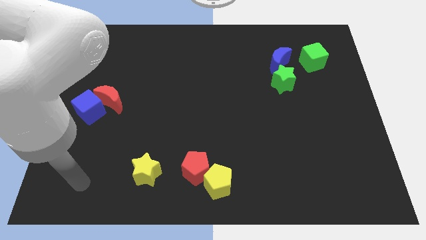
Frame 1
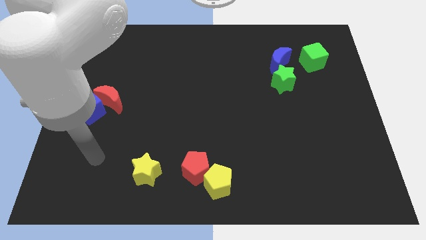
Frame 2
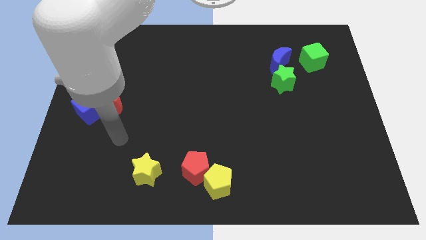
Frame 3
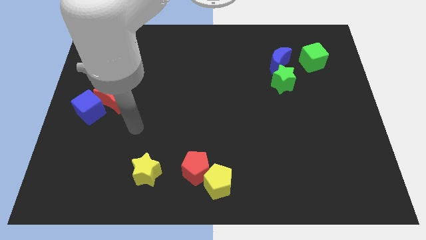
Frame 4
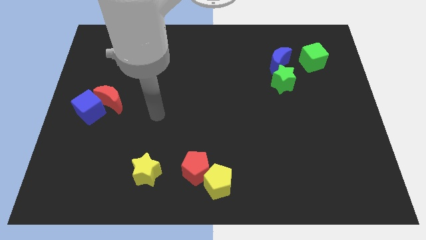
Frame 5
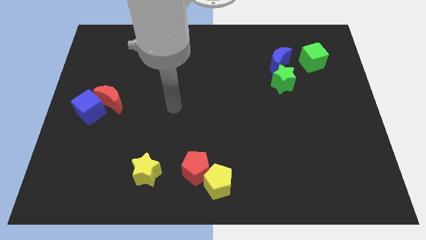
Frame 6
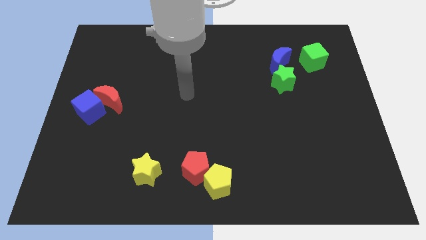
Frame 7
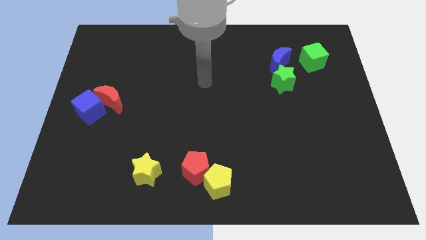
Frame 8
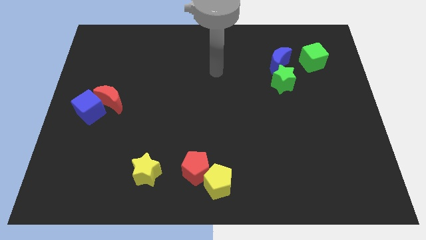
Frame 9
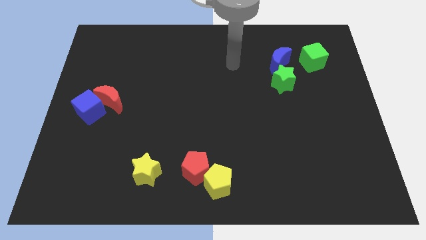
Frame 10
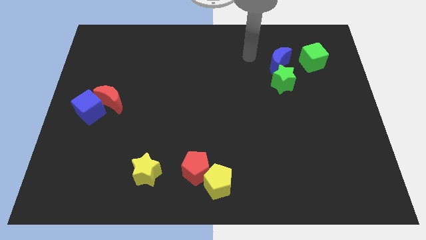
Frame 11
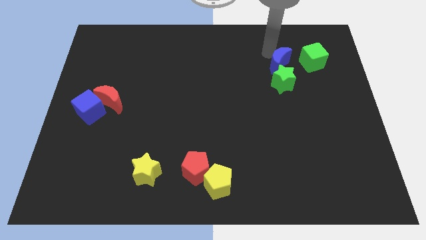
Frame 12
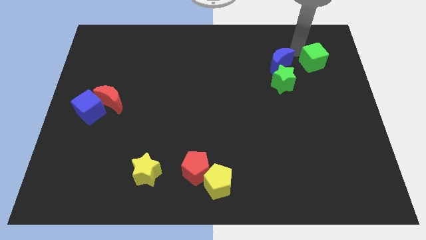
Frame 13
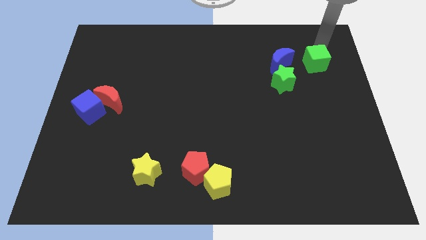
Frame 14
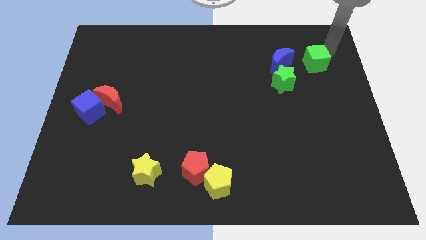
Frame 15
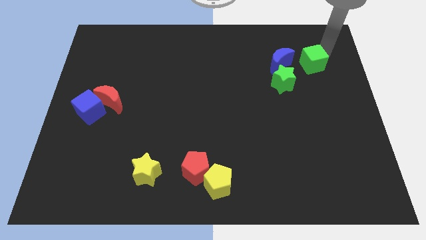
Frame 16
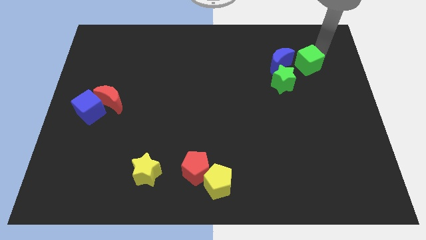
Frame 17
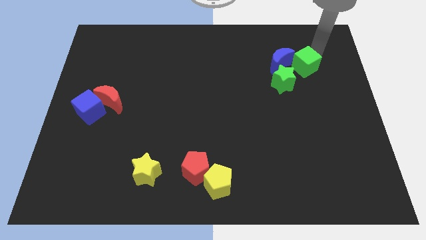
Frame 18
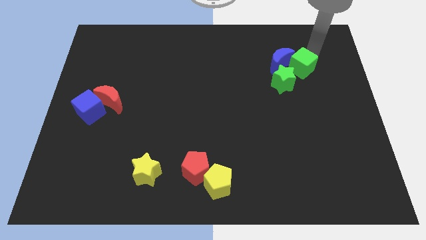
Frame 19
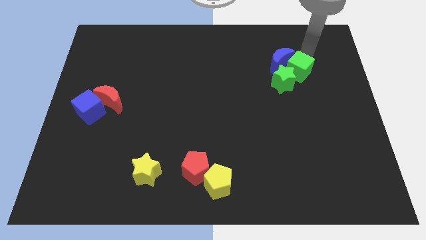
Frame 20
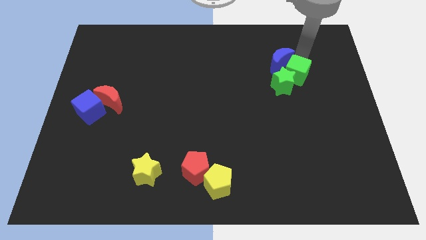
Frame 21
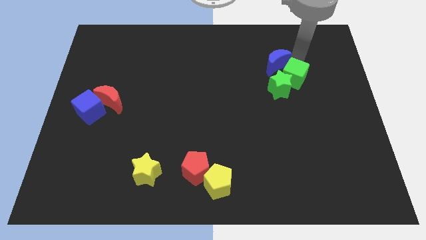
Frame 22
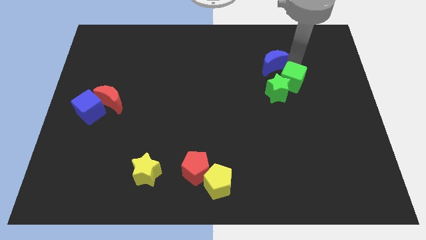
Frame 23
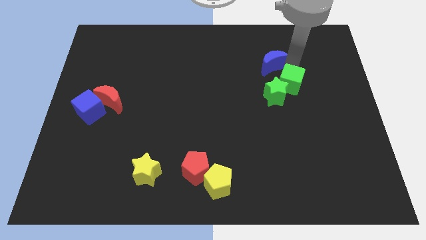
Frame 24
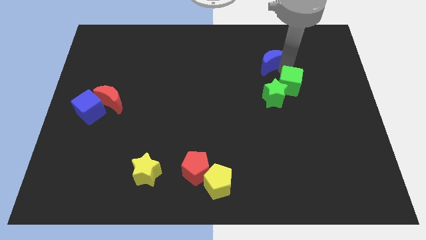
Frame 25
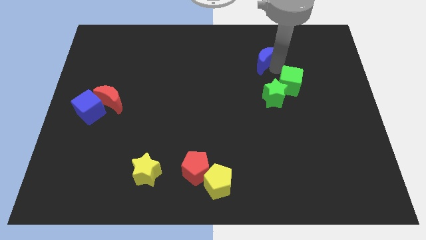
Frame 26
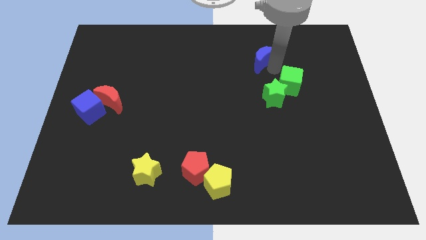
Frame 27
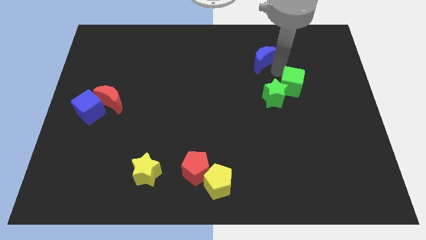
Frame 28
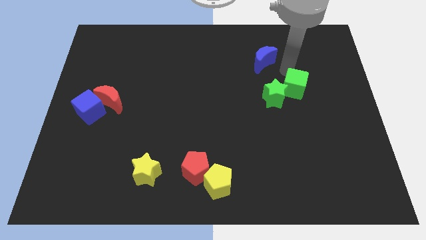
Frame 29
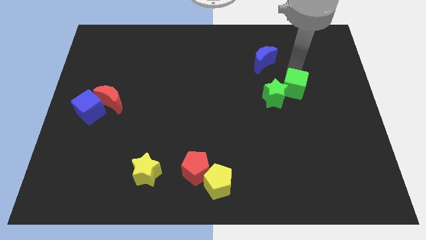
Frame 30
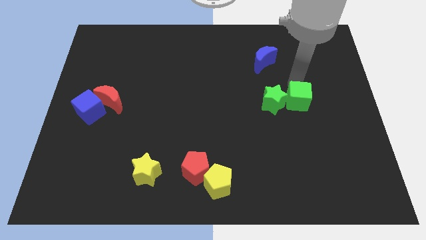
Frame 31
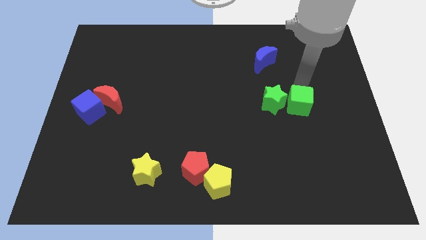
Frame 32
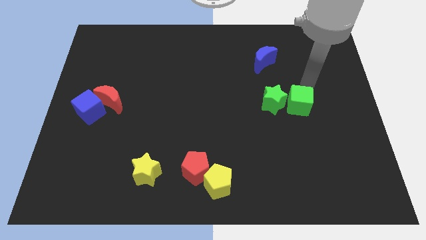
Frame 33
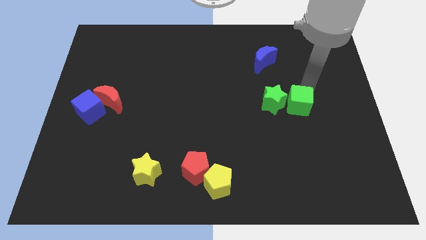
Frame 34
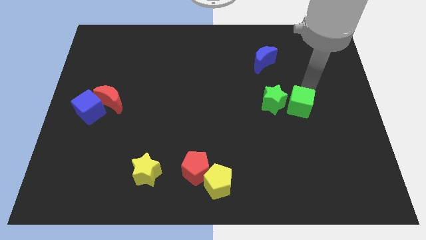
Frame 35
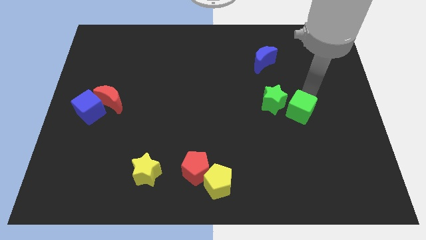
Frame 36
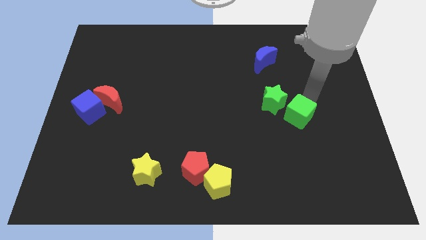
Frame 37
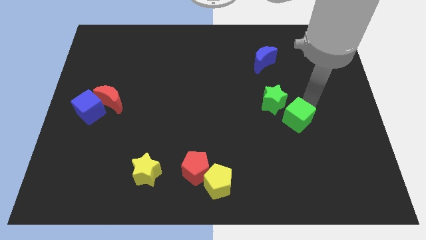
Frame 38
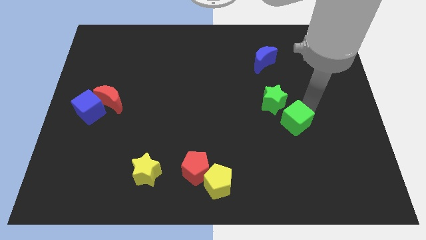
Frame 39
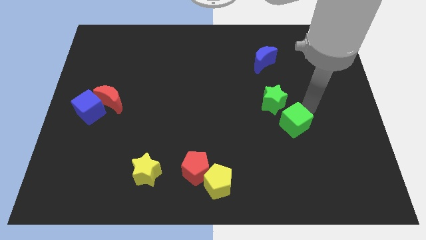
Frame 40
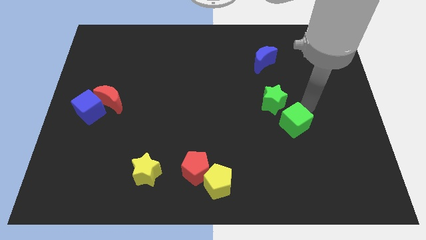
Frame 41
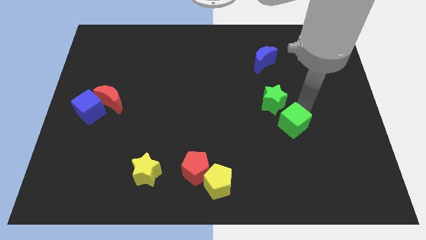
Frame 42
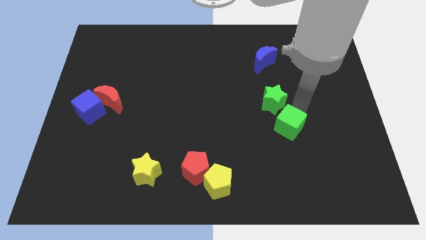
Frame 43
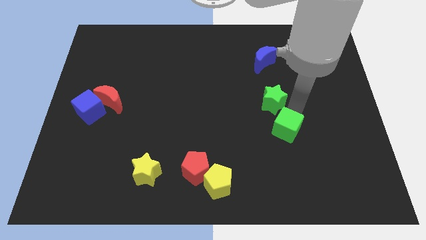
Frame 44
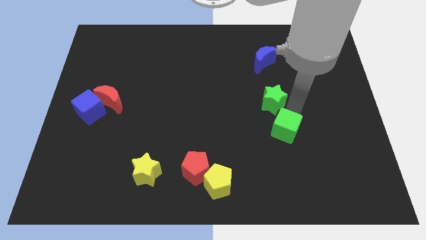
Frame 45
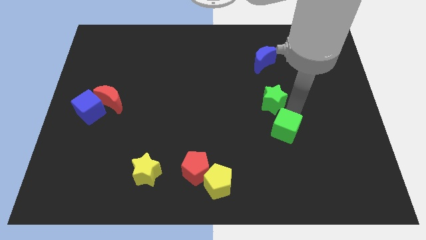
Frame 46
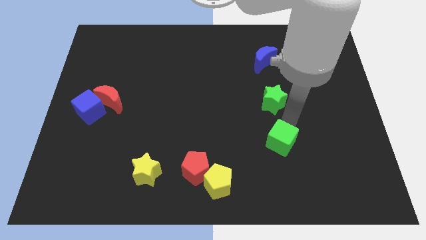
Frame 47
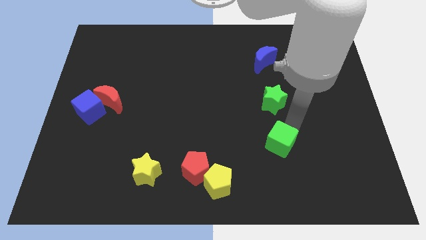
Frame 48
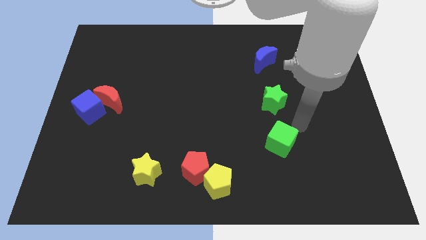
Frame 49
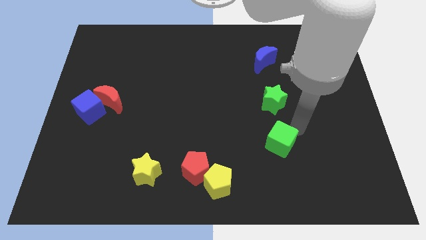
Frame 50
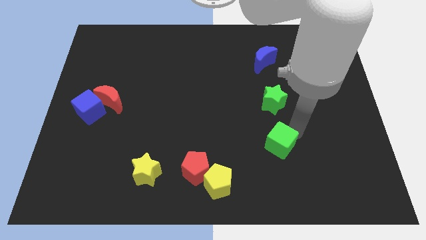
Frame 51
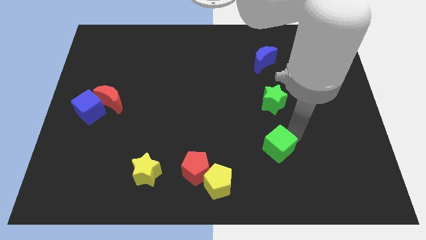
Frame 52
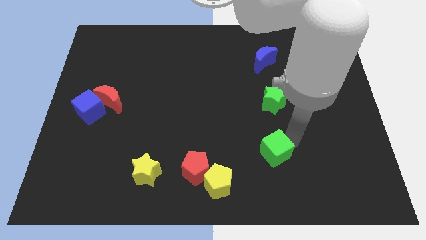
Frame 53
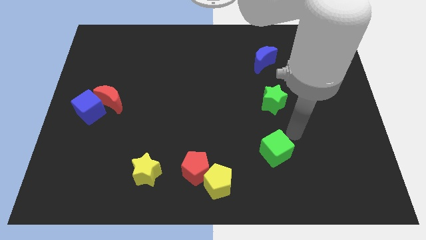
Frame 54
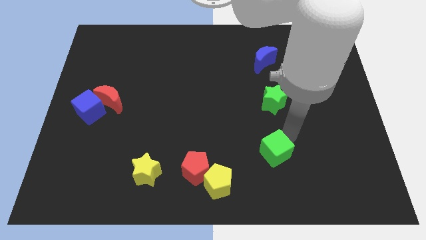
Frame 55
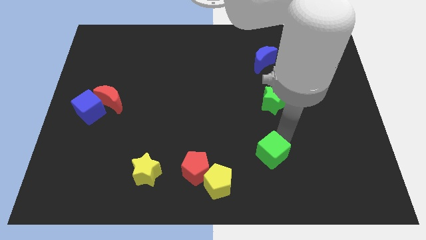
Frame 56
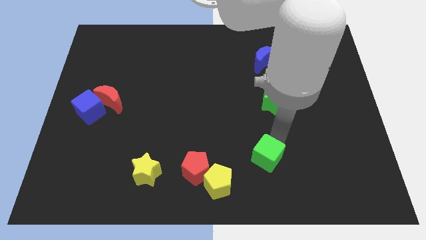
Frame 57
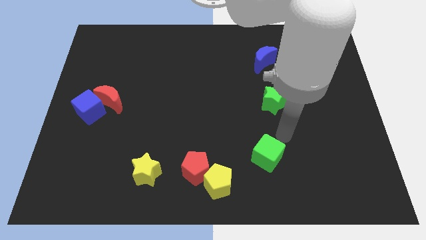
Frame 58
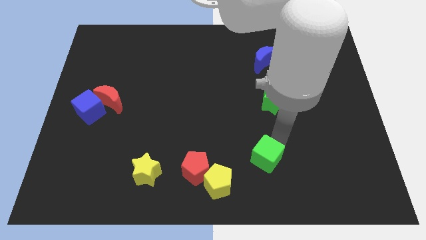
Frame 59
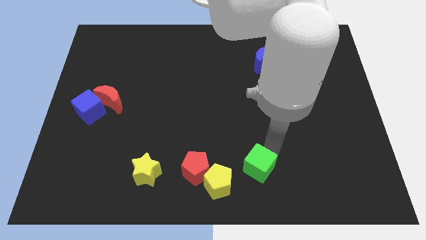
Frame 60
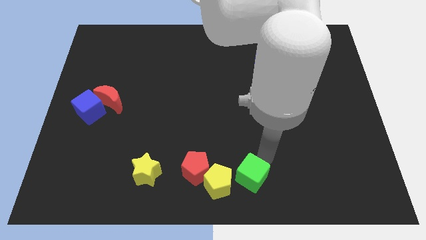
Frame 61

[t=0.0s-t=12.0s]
push the green cube to the bottom side

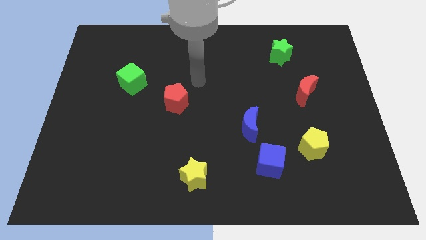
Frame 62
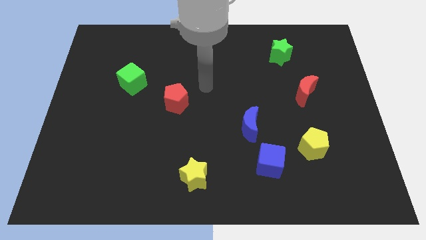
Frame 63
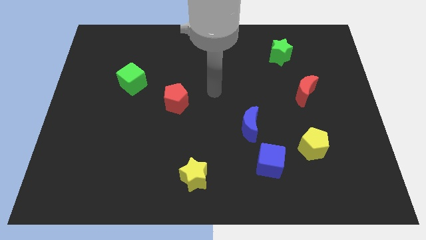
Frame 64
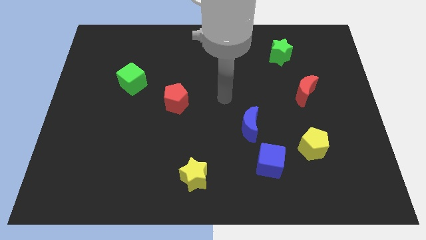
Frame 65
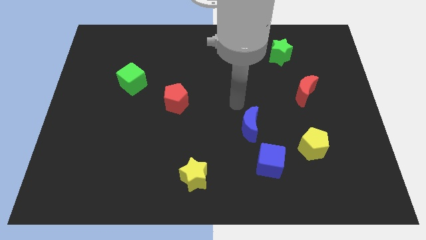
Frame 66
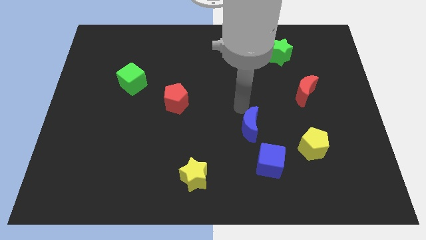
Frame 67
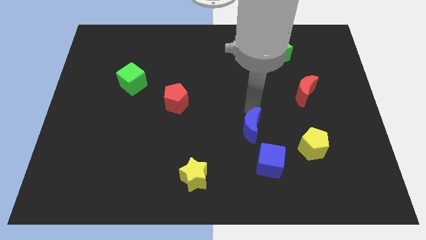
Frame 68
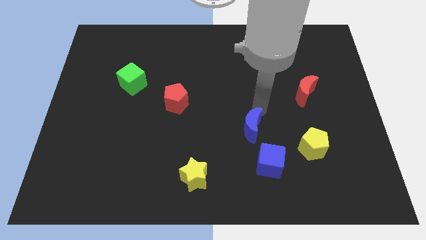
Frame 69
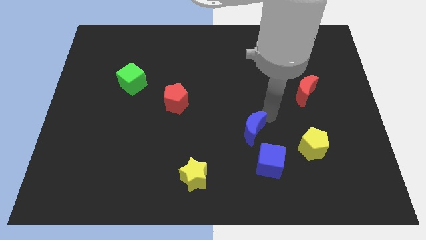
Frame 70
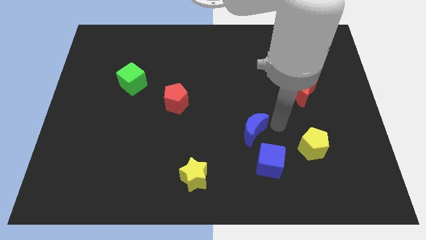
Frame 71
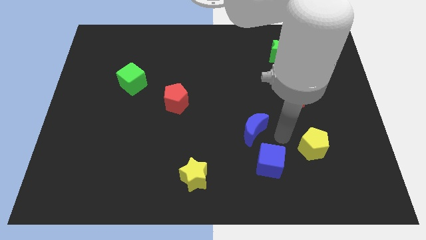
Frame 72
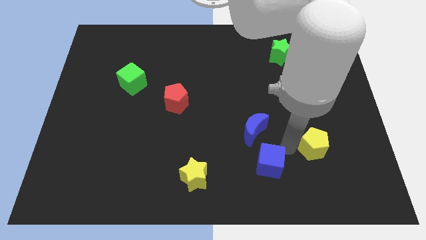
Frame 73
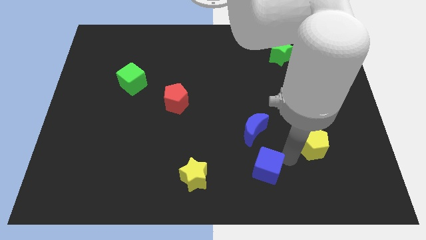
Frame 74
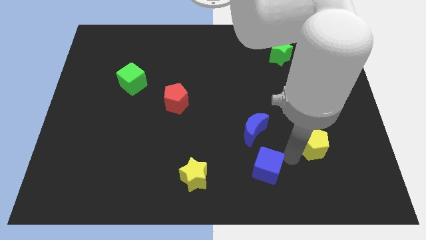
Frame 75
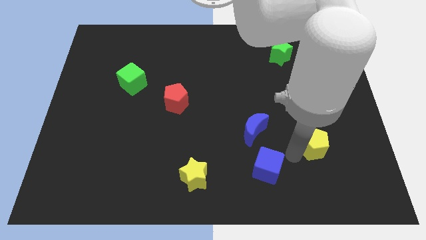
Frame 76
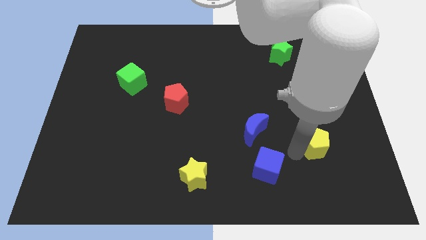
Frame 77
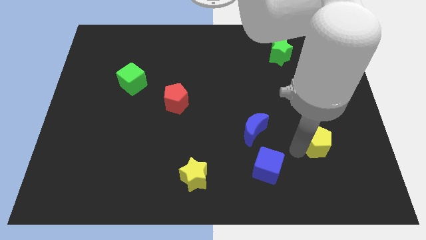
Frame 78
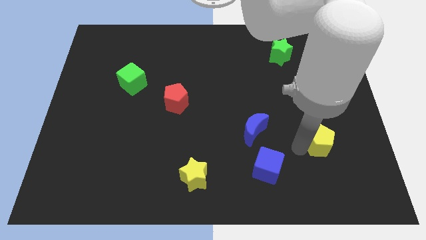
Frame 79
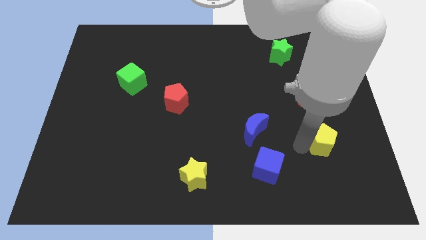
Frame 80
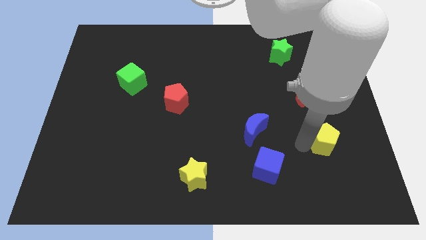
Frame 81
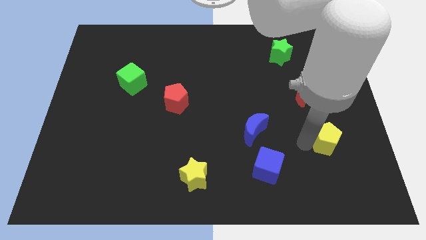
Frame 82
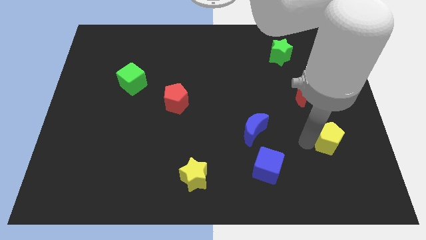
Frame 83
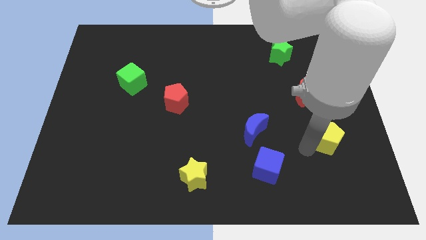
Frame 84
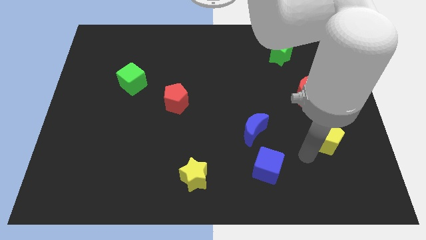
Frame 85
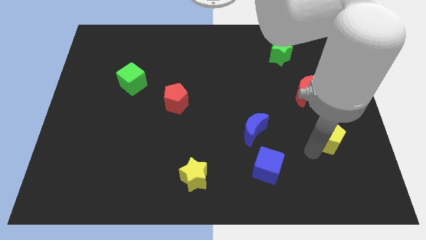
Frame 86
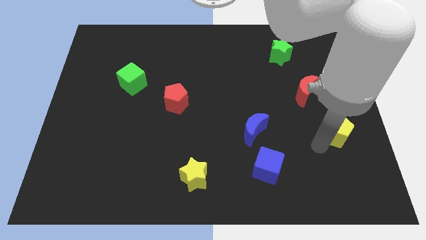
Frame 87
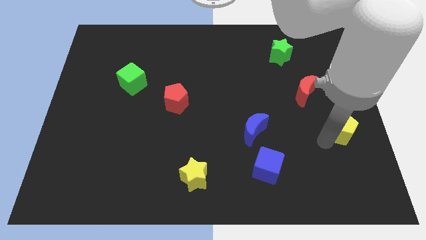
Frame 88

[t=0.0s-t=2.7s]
put the yellow pentagon to the center right
